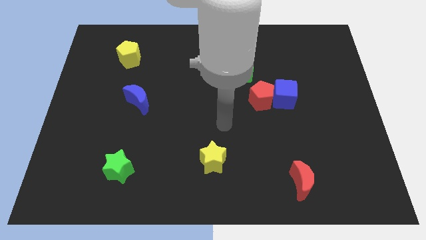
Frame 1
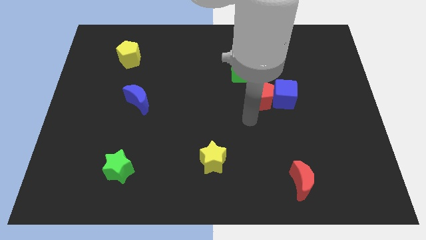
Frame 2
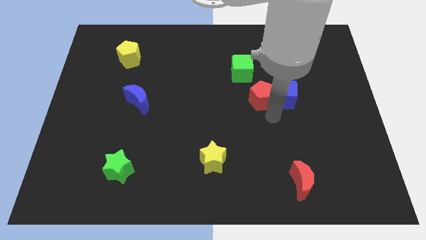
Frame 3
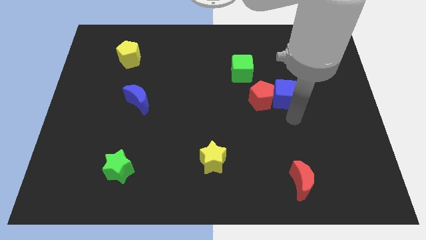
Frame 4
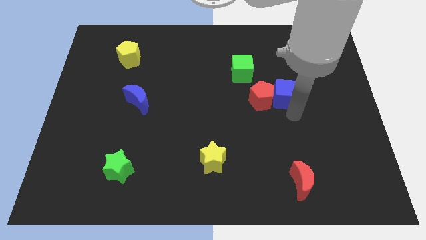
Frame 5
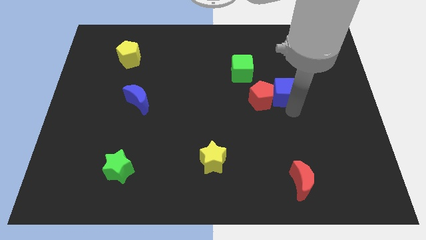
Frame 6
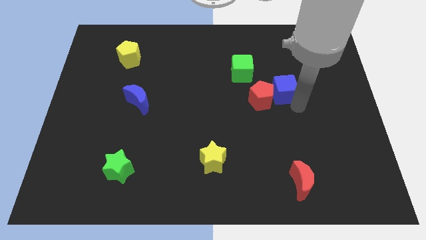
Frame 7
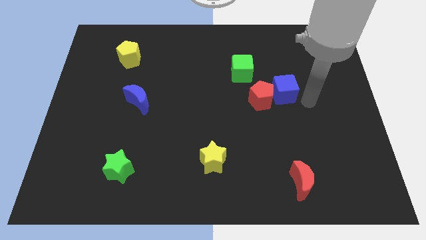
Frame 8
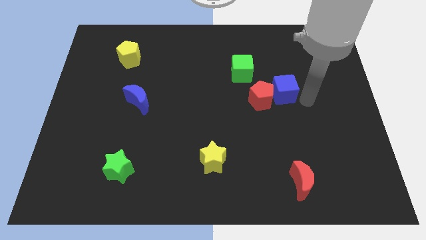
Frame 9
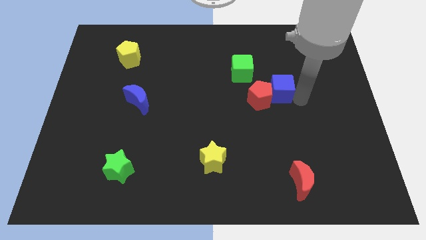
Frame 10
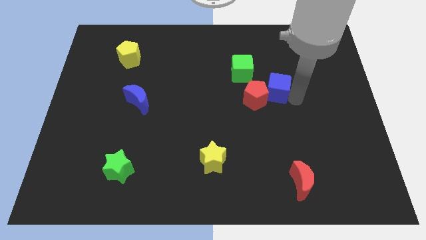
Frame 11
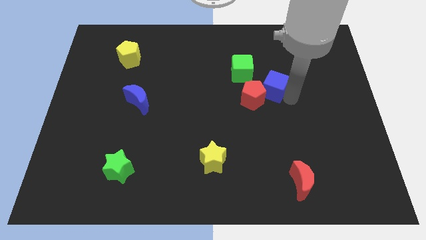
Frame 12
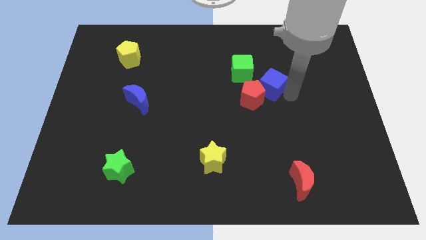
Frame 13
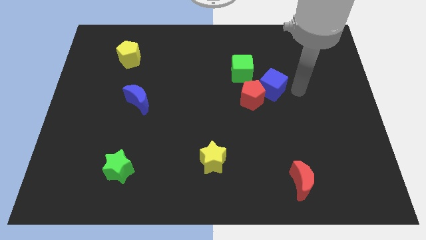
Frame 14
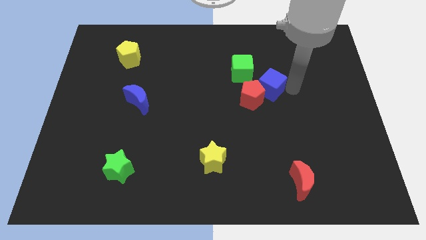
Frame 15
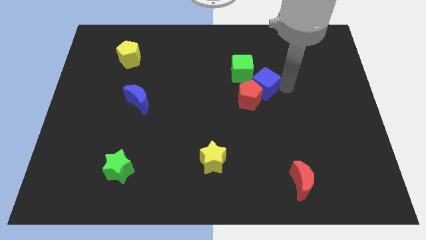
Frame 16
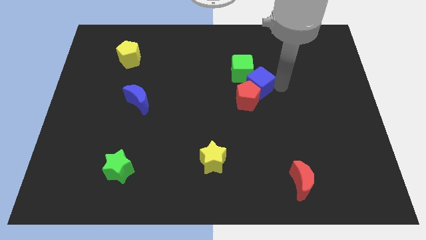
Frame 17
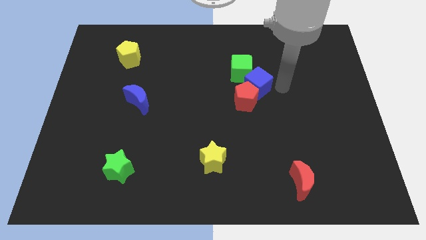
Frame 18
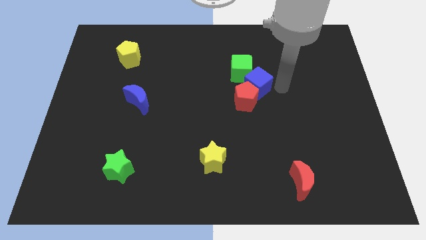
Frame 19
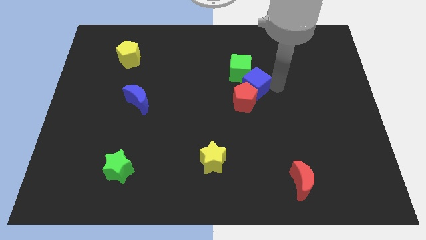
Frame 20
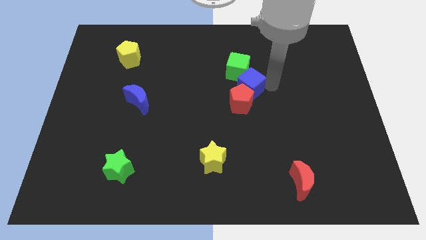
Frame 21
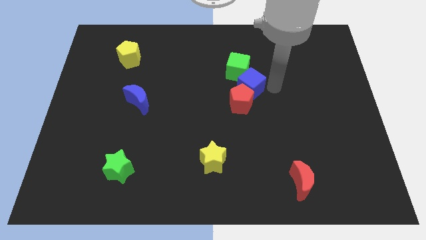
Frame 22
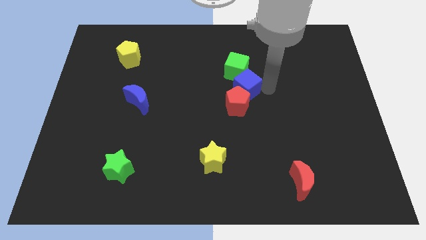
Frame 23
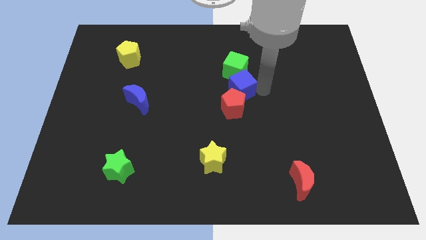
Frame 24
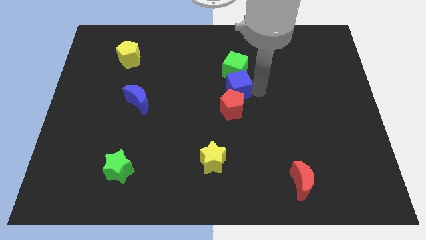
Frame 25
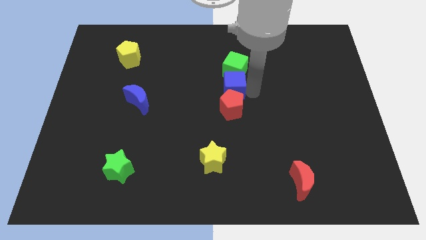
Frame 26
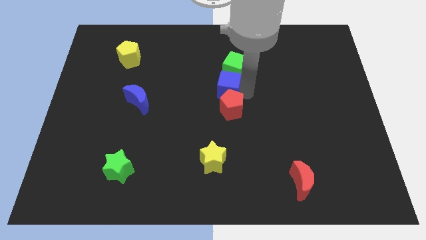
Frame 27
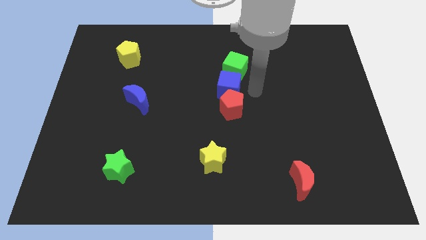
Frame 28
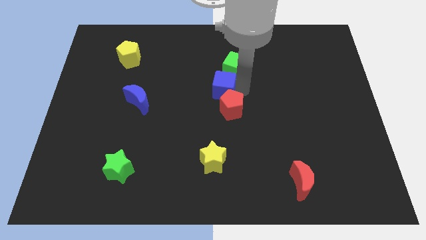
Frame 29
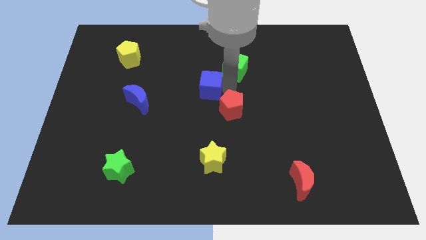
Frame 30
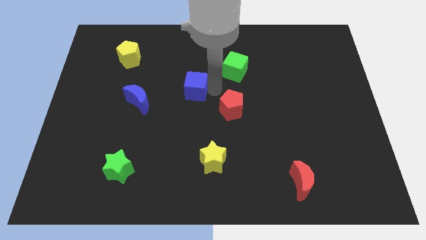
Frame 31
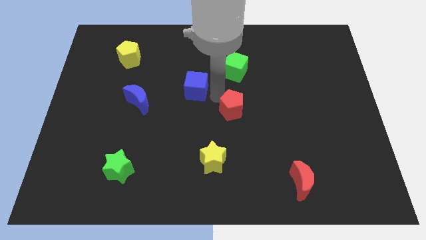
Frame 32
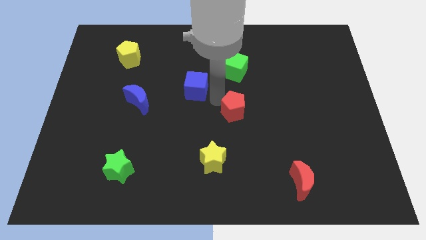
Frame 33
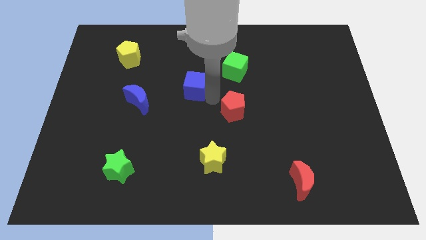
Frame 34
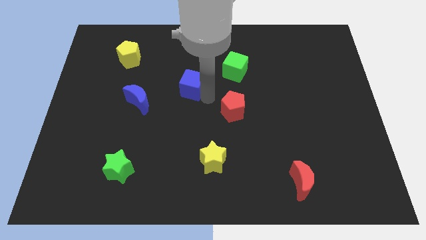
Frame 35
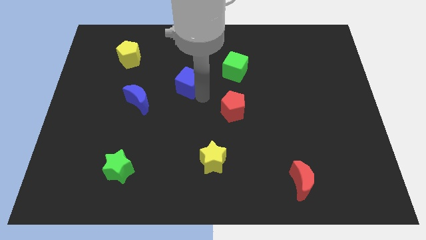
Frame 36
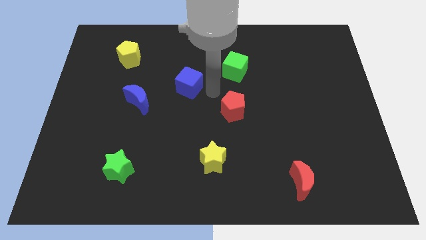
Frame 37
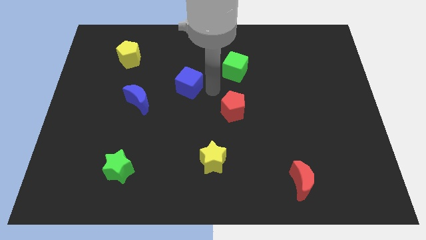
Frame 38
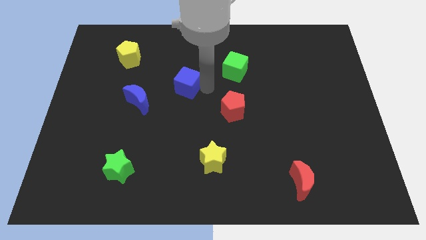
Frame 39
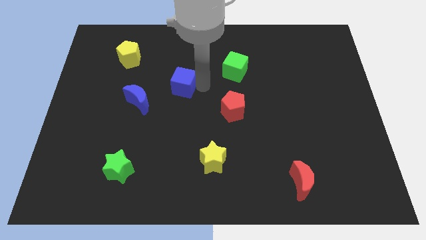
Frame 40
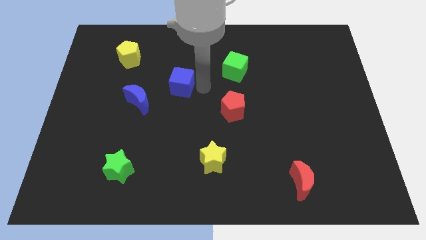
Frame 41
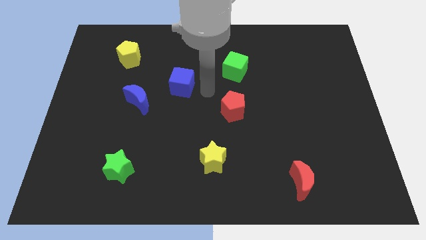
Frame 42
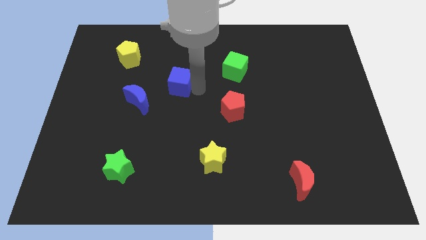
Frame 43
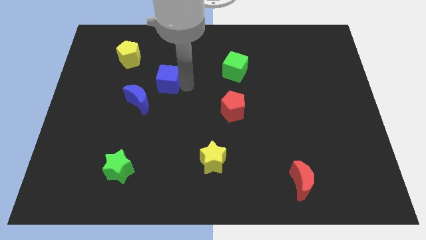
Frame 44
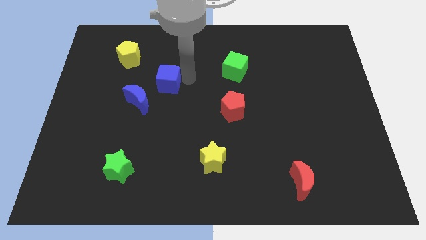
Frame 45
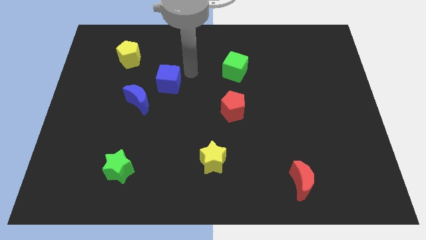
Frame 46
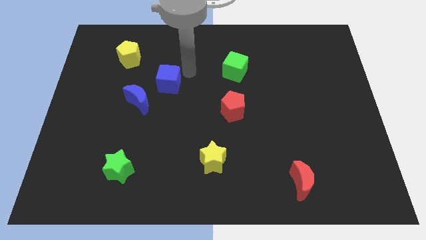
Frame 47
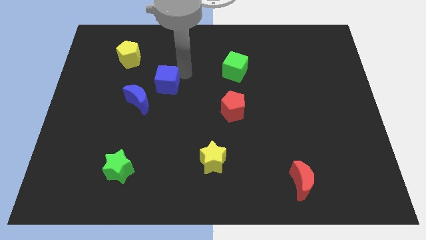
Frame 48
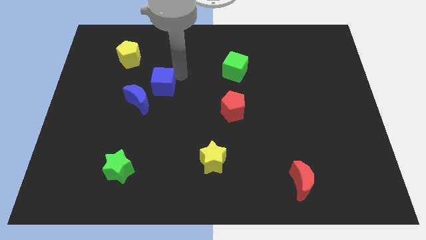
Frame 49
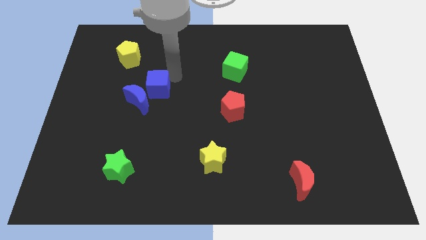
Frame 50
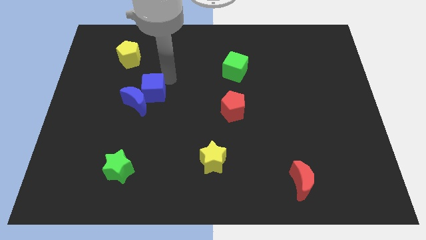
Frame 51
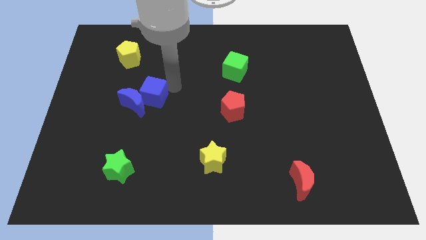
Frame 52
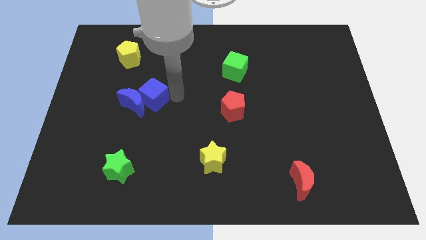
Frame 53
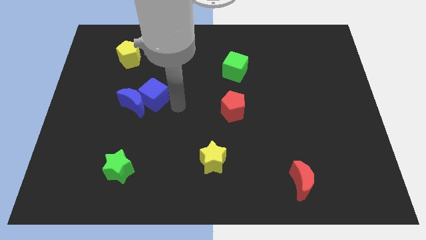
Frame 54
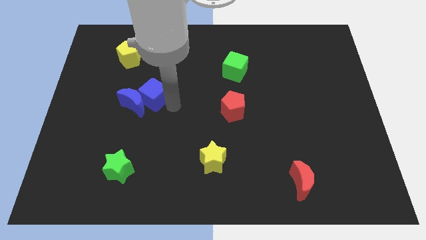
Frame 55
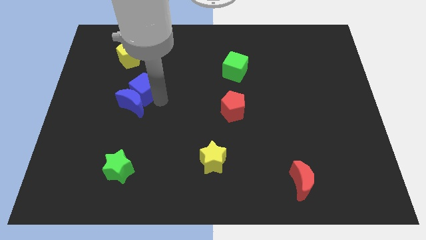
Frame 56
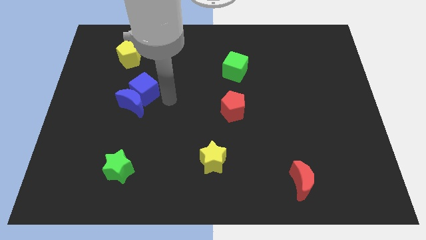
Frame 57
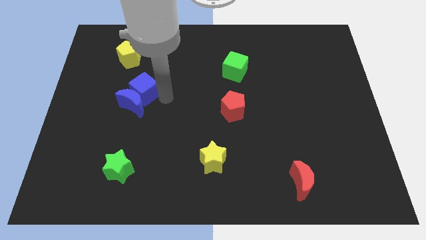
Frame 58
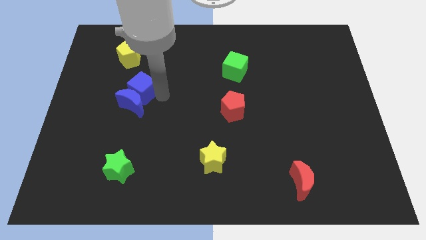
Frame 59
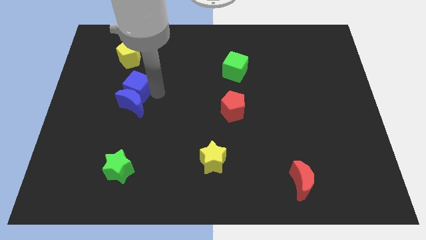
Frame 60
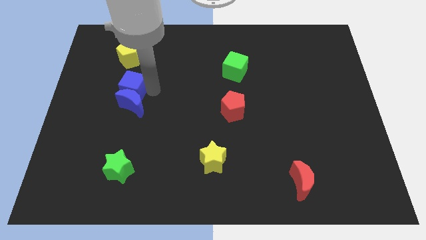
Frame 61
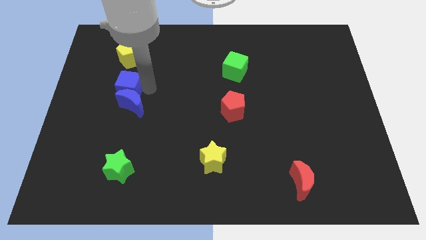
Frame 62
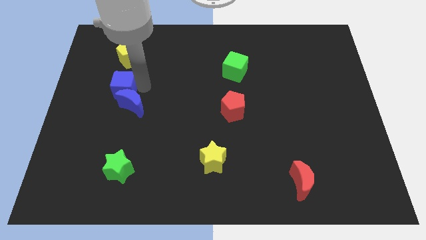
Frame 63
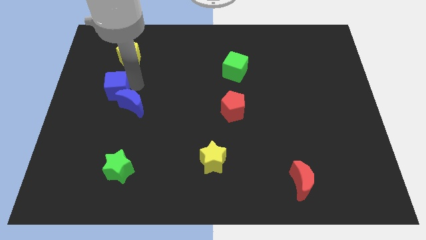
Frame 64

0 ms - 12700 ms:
push the blue cube just left of the blue moon

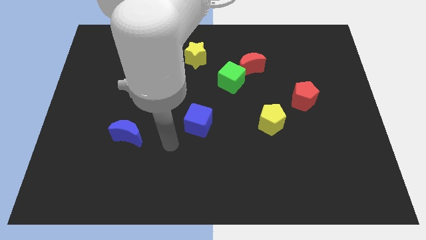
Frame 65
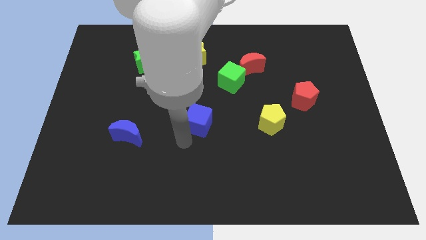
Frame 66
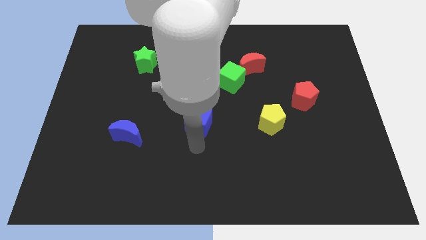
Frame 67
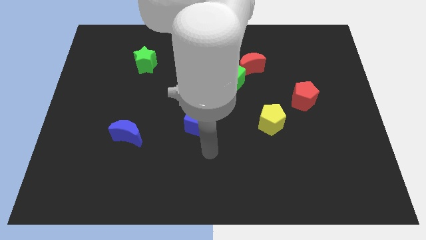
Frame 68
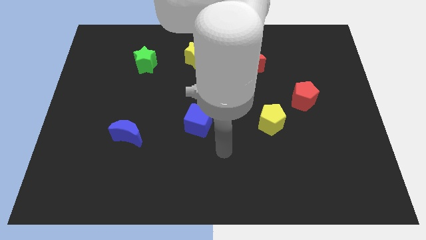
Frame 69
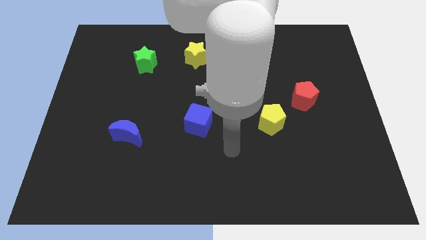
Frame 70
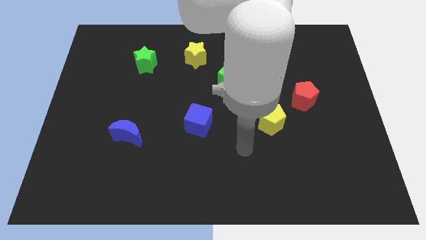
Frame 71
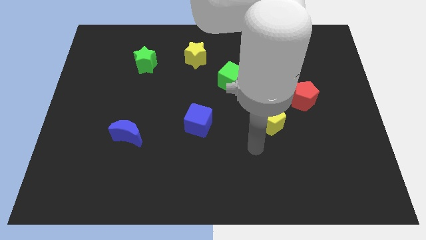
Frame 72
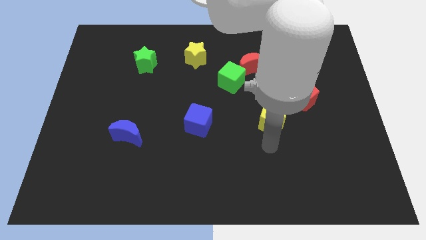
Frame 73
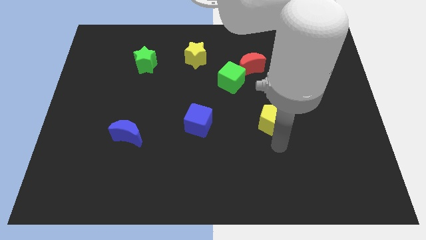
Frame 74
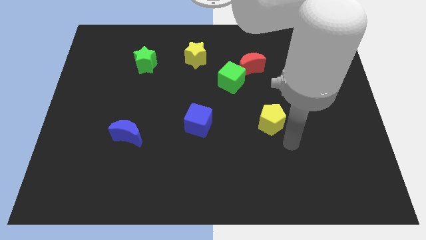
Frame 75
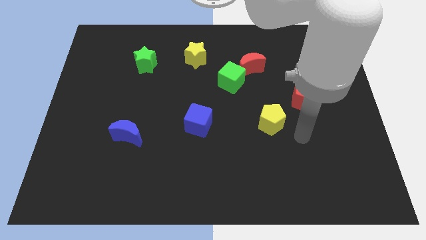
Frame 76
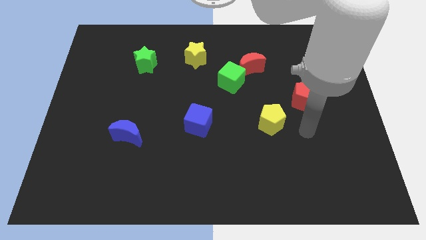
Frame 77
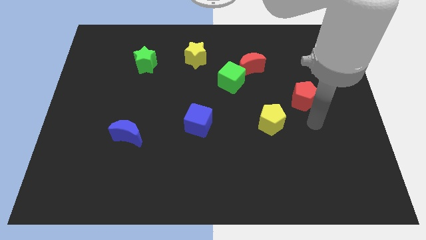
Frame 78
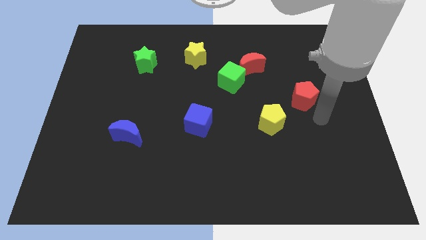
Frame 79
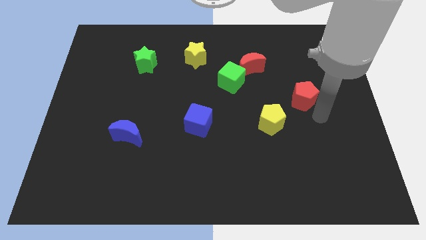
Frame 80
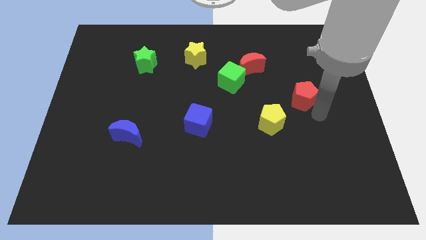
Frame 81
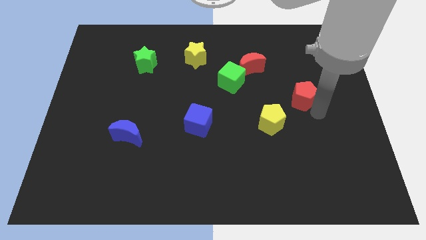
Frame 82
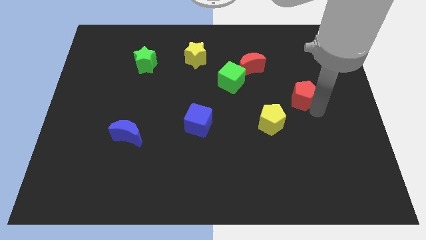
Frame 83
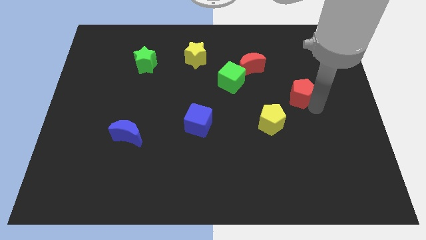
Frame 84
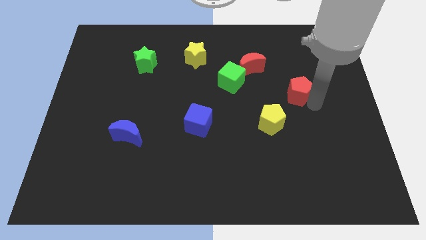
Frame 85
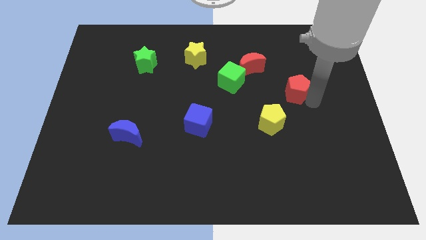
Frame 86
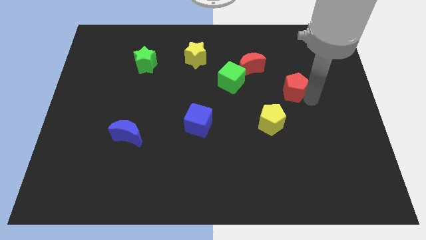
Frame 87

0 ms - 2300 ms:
push the red pentagon right of the green cube
